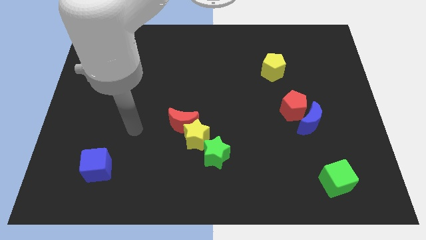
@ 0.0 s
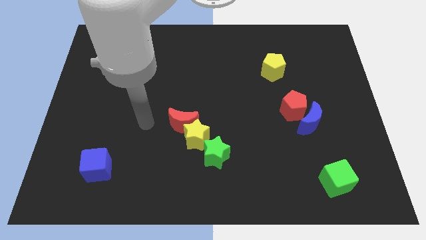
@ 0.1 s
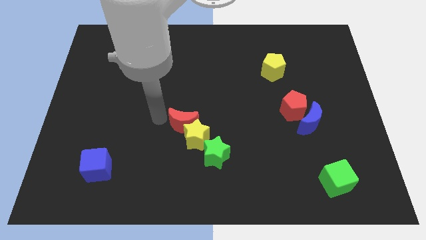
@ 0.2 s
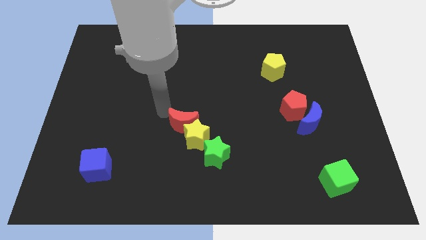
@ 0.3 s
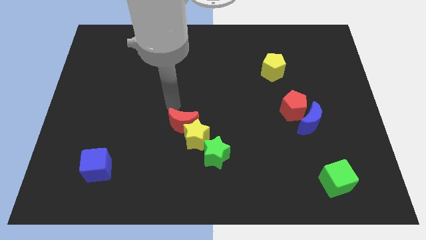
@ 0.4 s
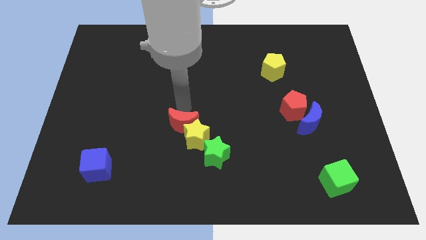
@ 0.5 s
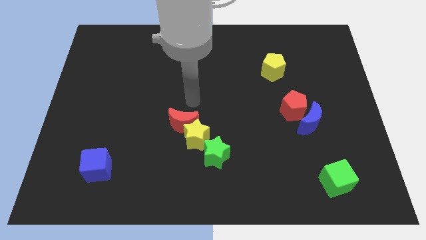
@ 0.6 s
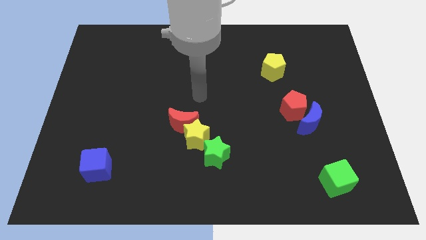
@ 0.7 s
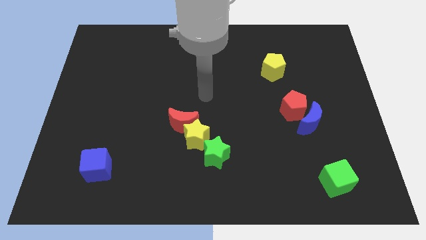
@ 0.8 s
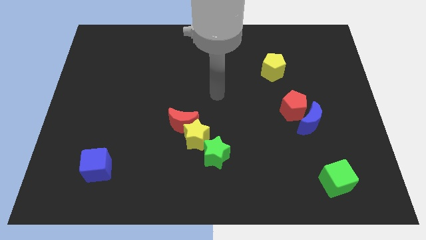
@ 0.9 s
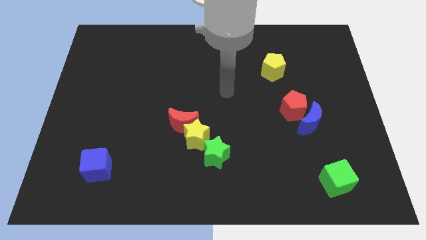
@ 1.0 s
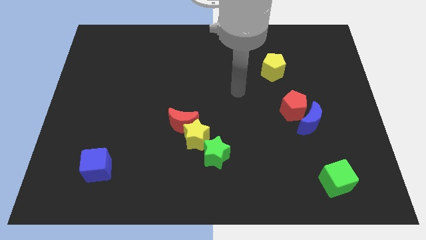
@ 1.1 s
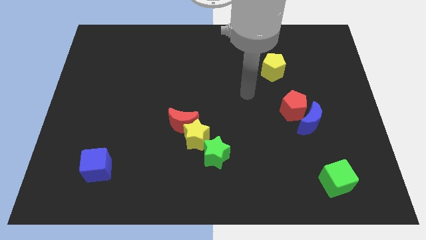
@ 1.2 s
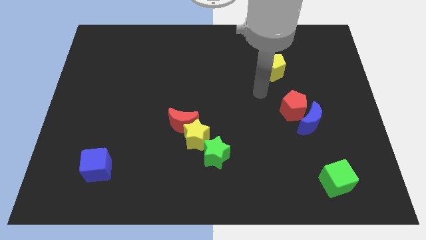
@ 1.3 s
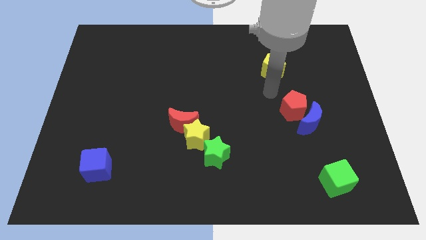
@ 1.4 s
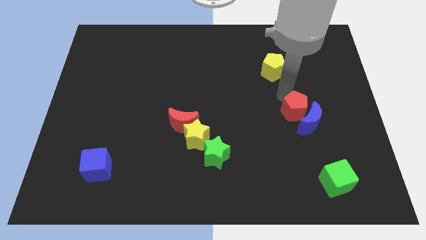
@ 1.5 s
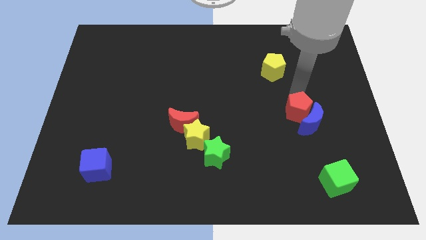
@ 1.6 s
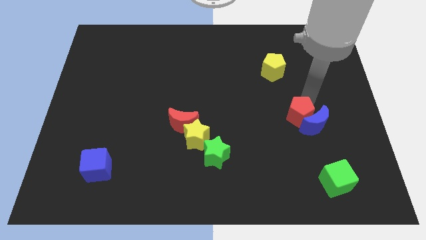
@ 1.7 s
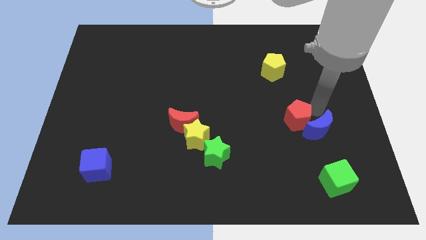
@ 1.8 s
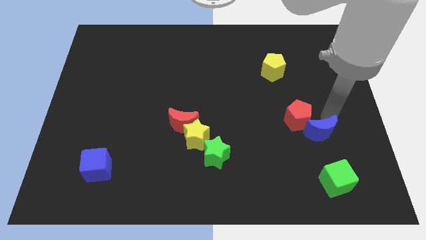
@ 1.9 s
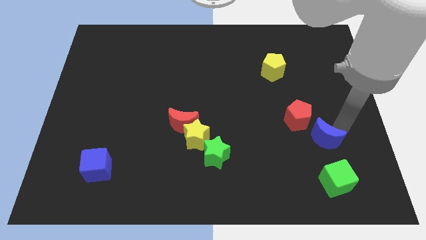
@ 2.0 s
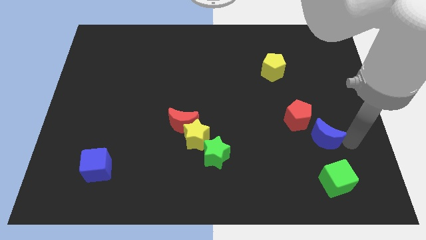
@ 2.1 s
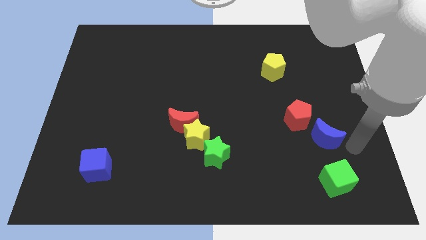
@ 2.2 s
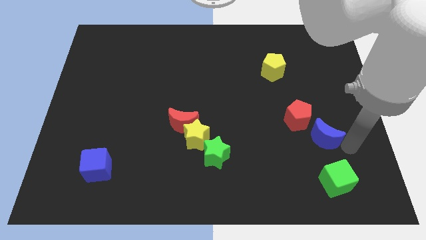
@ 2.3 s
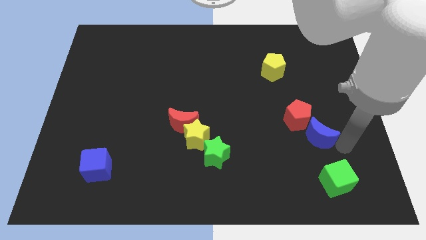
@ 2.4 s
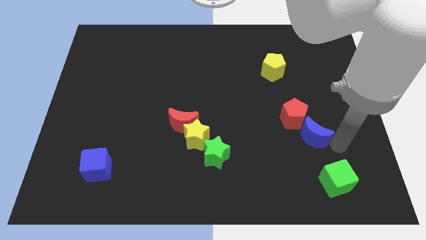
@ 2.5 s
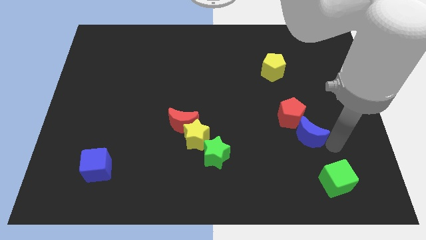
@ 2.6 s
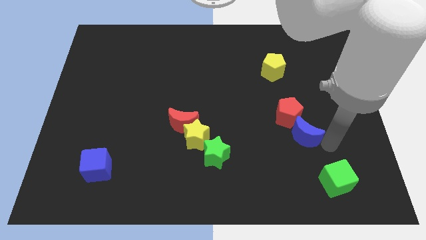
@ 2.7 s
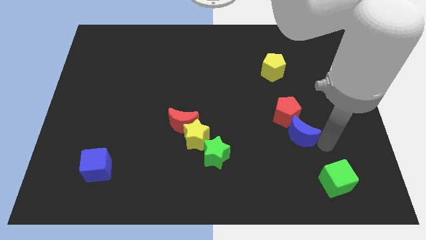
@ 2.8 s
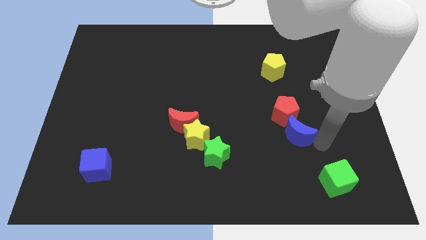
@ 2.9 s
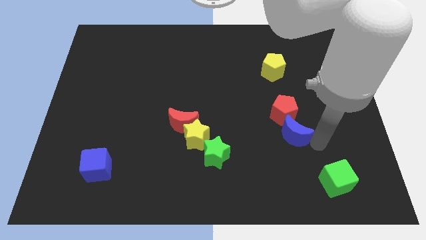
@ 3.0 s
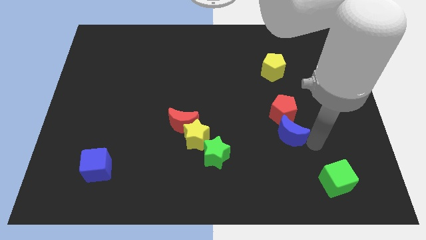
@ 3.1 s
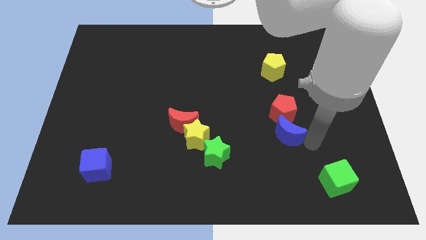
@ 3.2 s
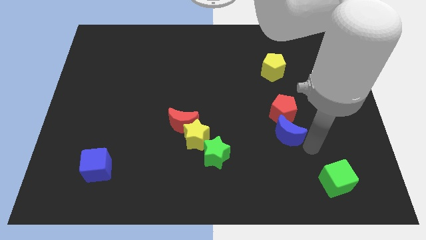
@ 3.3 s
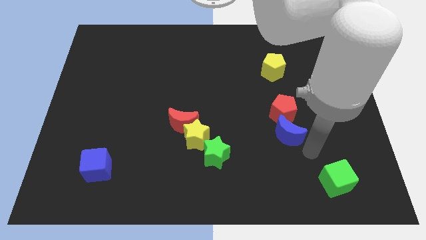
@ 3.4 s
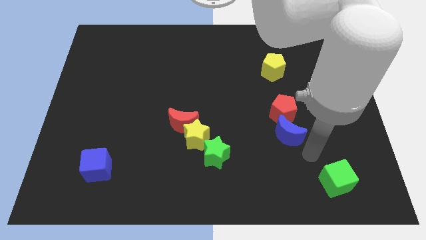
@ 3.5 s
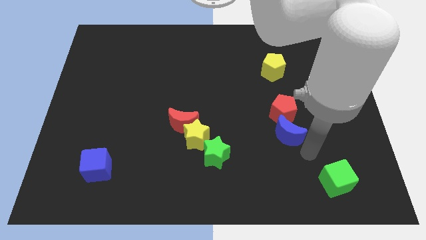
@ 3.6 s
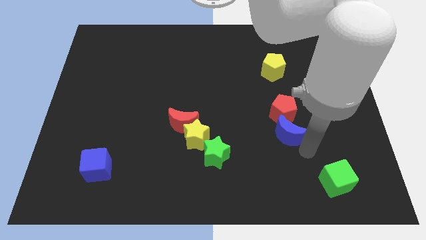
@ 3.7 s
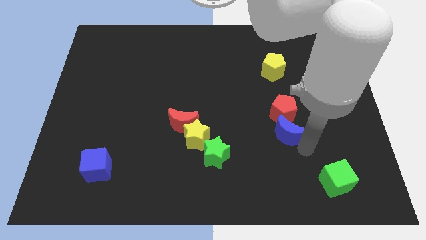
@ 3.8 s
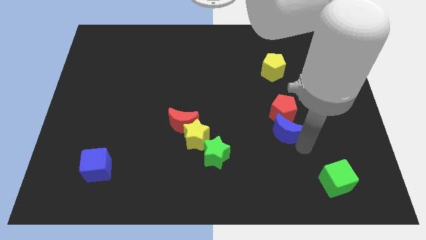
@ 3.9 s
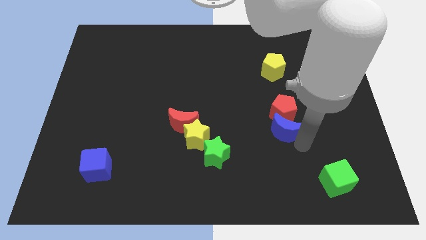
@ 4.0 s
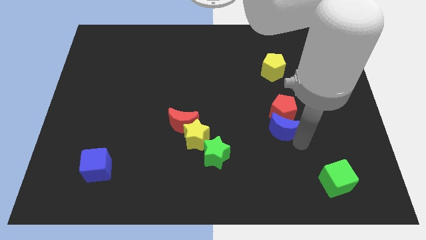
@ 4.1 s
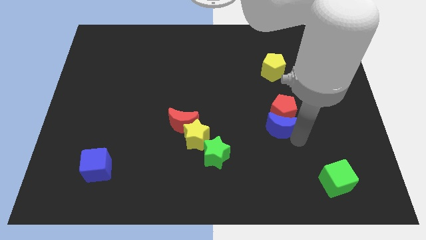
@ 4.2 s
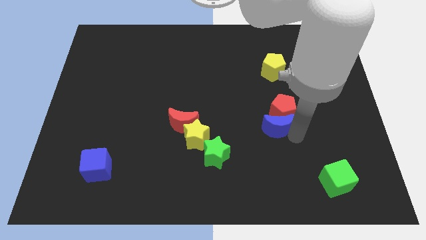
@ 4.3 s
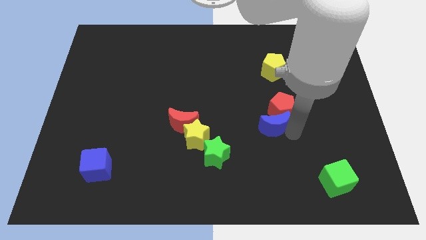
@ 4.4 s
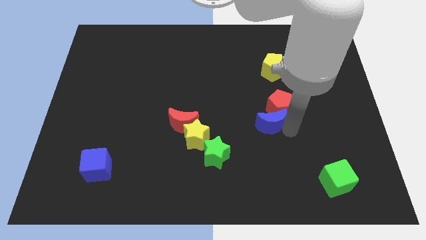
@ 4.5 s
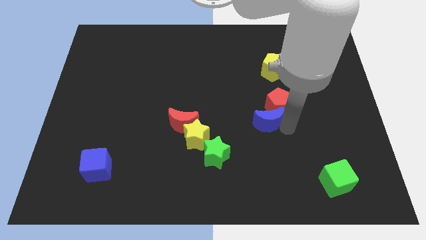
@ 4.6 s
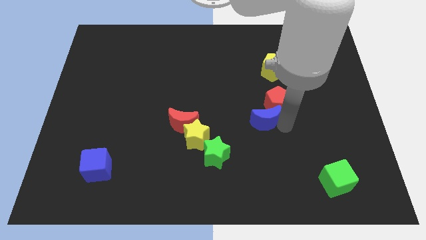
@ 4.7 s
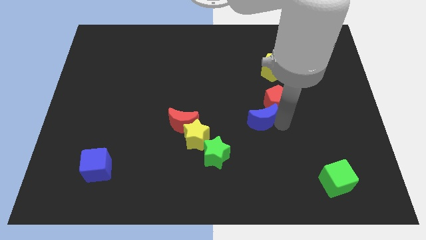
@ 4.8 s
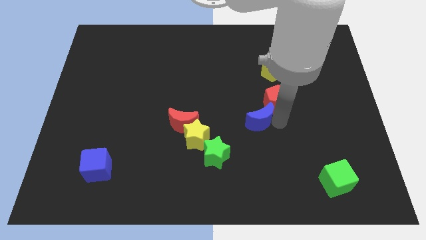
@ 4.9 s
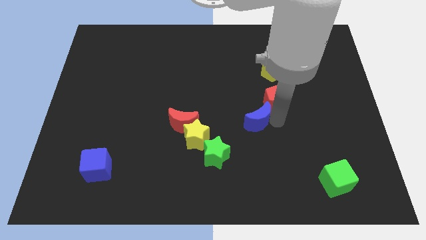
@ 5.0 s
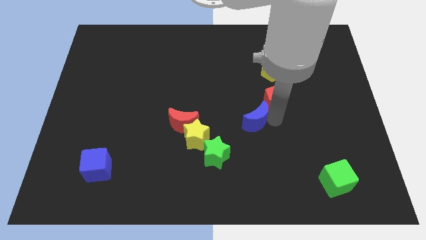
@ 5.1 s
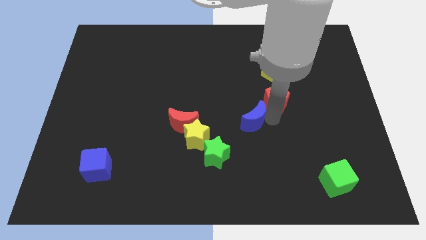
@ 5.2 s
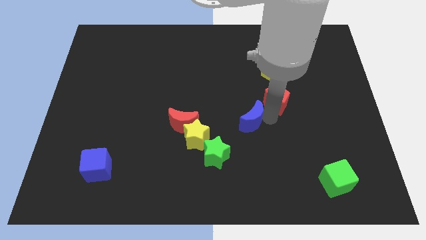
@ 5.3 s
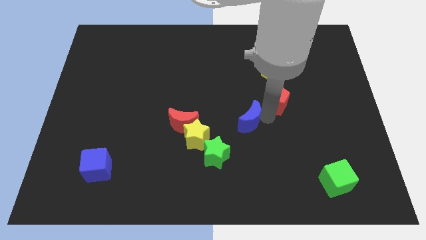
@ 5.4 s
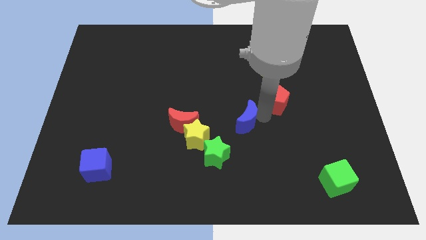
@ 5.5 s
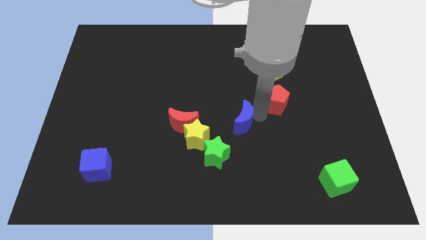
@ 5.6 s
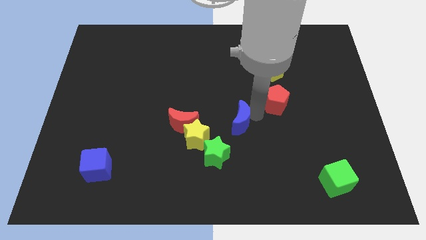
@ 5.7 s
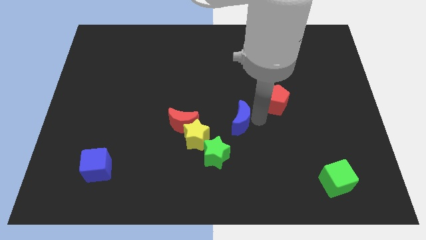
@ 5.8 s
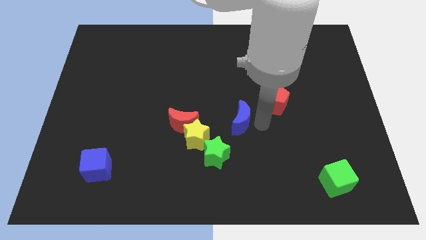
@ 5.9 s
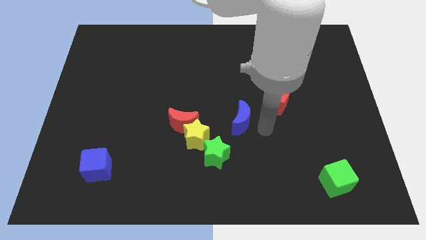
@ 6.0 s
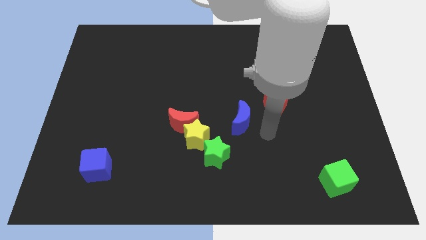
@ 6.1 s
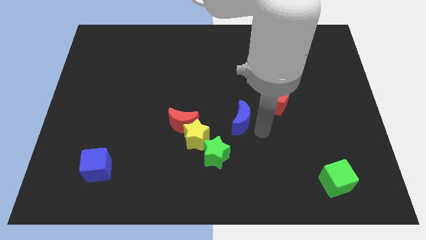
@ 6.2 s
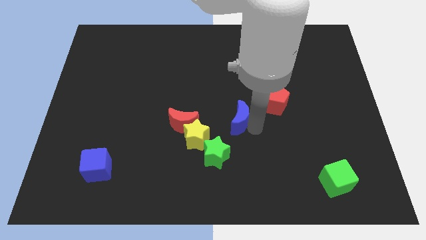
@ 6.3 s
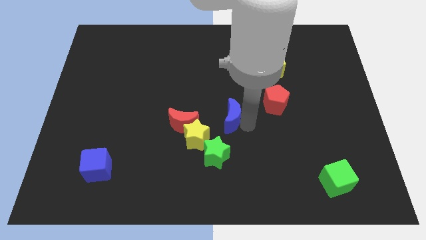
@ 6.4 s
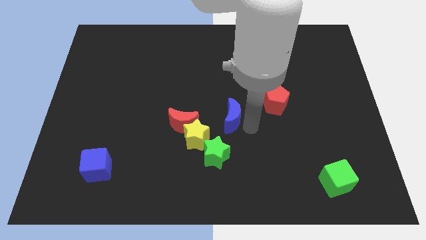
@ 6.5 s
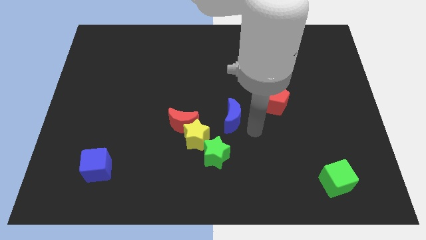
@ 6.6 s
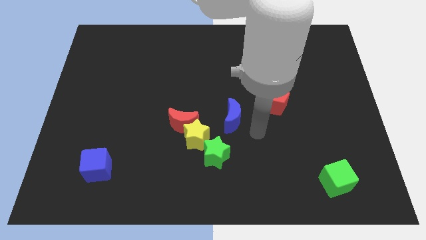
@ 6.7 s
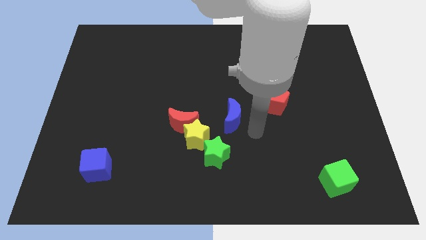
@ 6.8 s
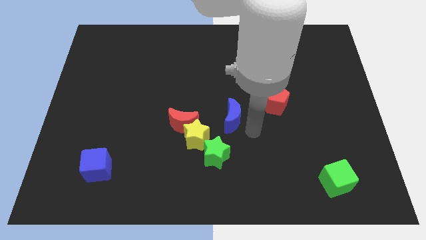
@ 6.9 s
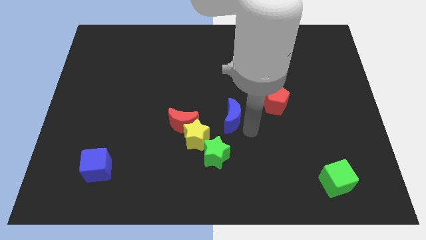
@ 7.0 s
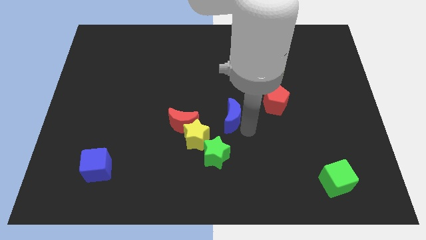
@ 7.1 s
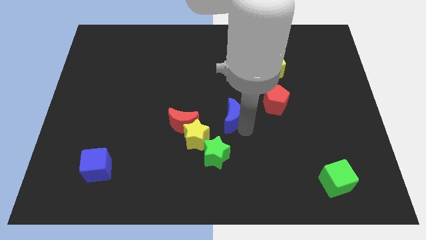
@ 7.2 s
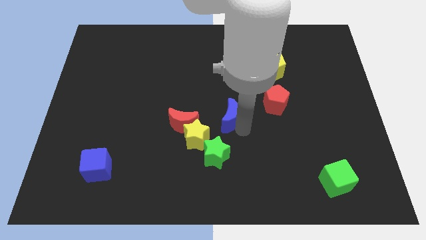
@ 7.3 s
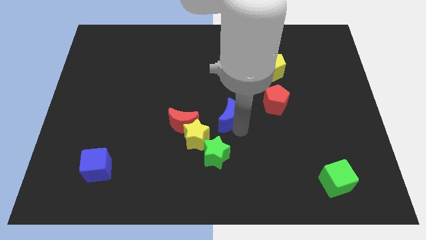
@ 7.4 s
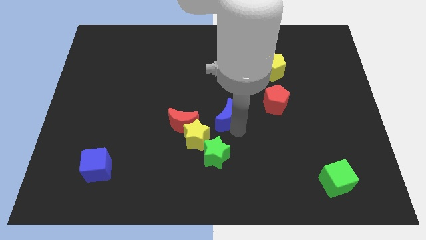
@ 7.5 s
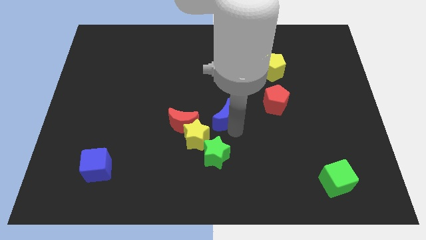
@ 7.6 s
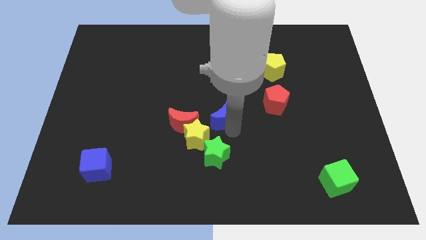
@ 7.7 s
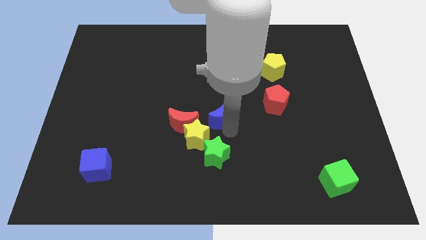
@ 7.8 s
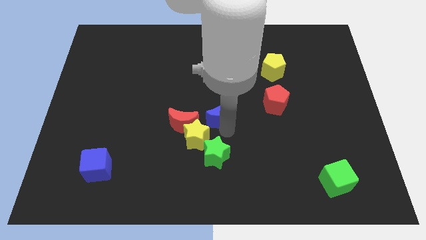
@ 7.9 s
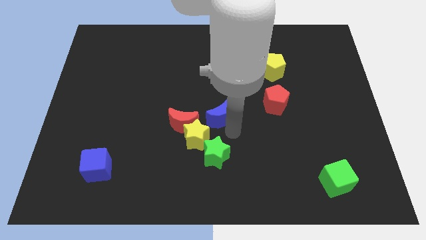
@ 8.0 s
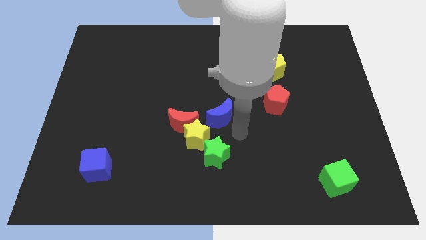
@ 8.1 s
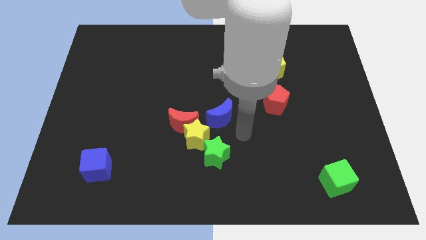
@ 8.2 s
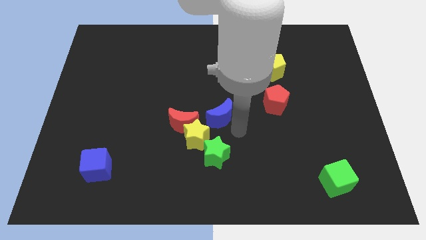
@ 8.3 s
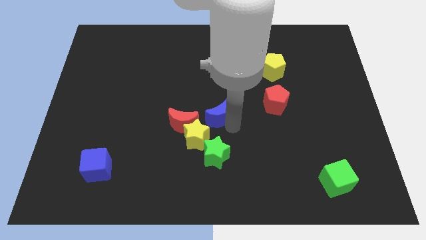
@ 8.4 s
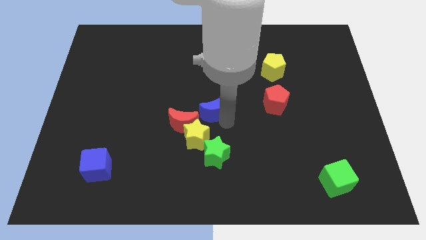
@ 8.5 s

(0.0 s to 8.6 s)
put the blue moon to the top of the yellow star
